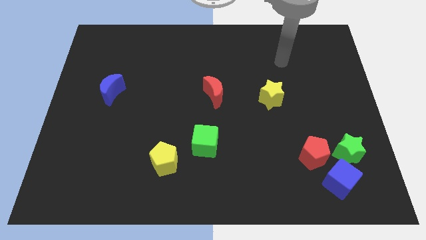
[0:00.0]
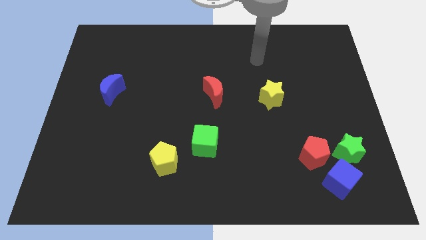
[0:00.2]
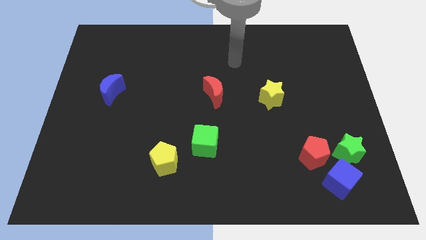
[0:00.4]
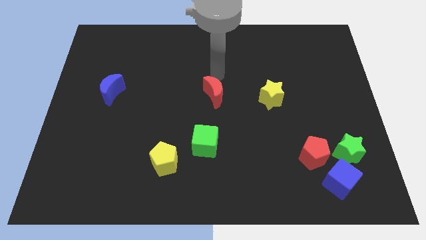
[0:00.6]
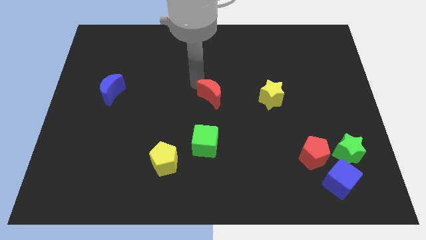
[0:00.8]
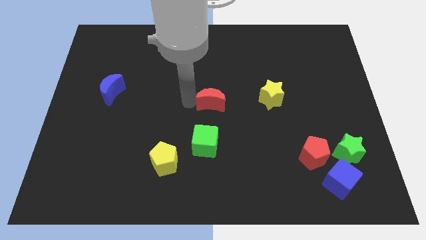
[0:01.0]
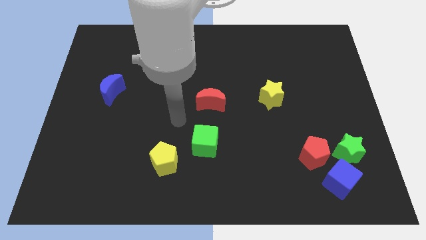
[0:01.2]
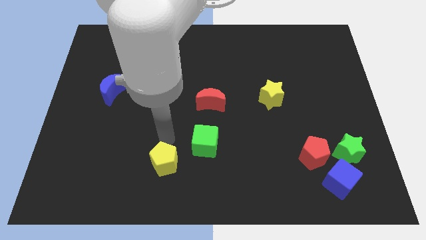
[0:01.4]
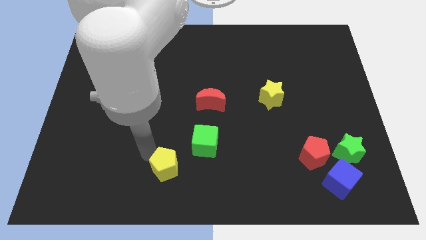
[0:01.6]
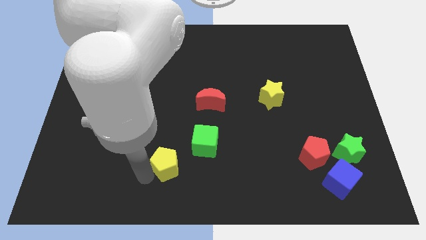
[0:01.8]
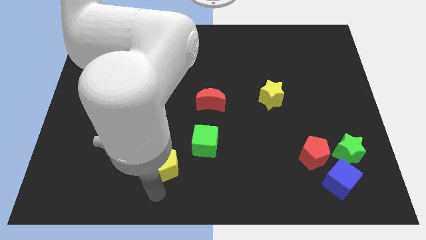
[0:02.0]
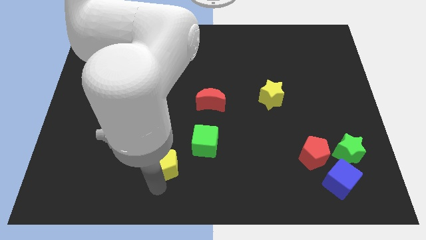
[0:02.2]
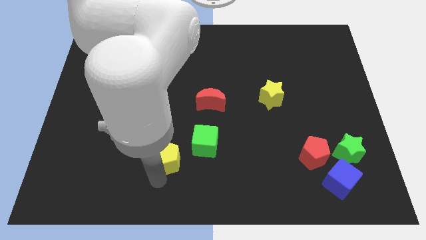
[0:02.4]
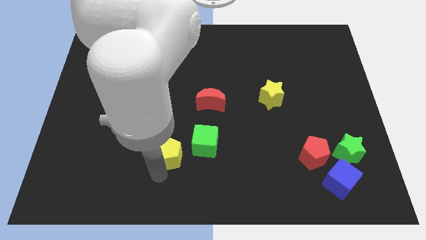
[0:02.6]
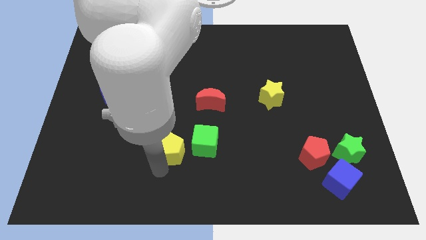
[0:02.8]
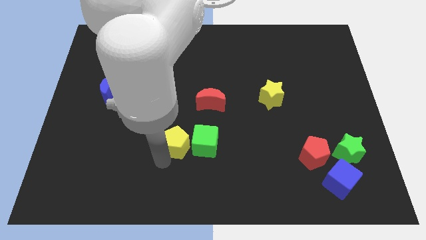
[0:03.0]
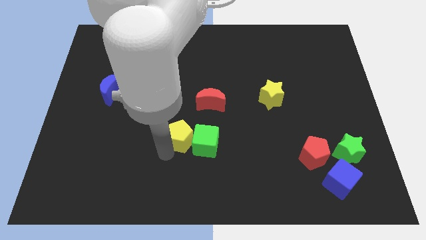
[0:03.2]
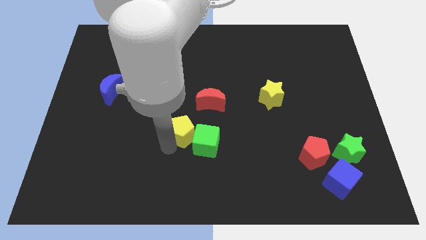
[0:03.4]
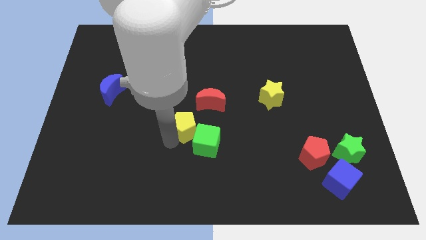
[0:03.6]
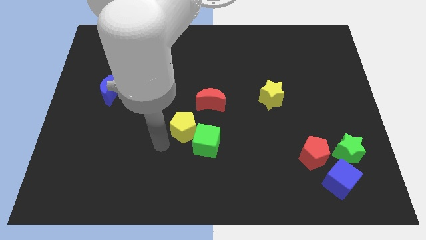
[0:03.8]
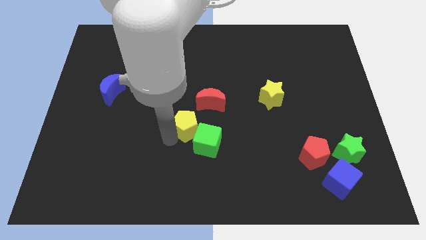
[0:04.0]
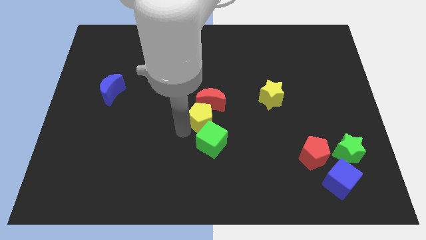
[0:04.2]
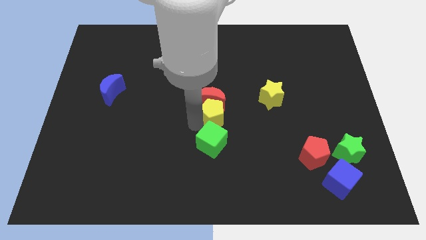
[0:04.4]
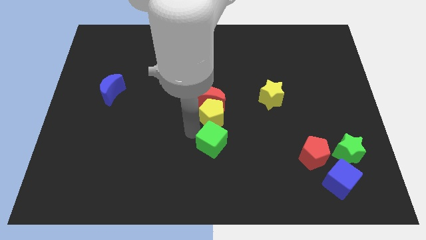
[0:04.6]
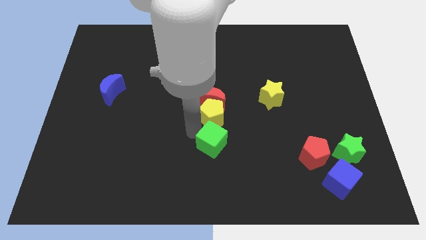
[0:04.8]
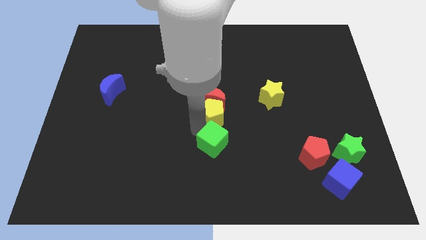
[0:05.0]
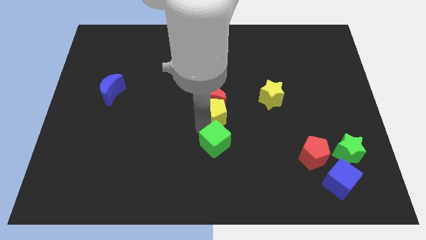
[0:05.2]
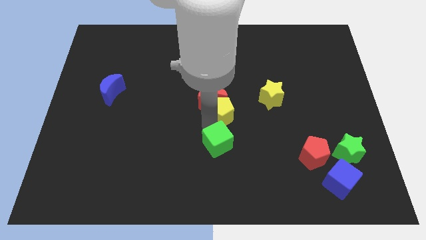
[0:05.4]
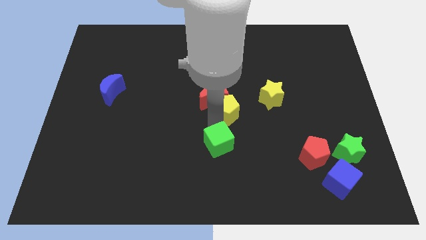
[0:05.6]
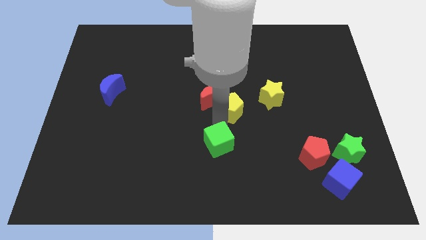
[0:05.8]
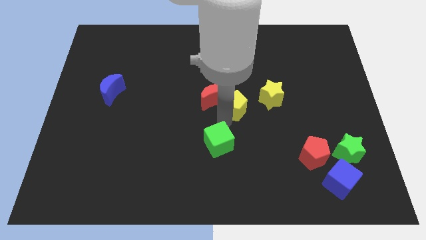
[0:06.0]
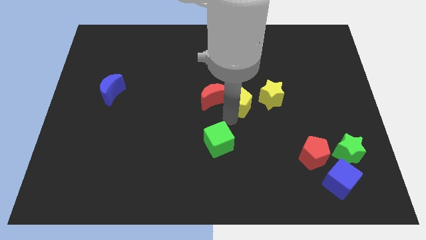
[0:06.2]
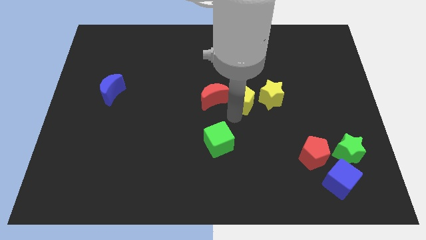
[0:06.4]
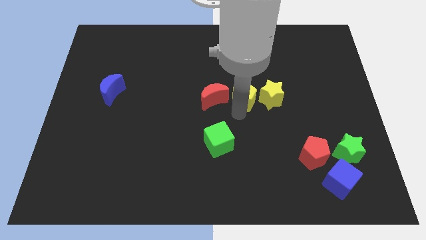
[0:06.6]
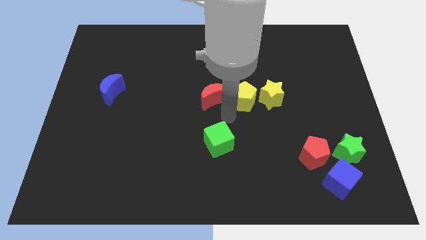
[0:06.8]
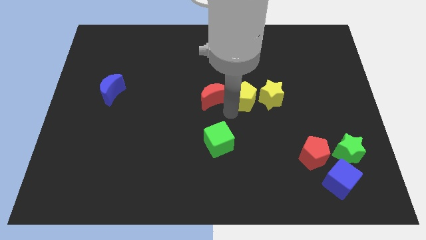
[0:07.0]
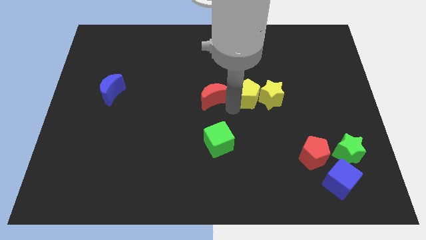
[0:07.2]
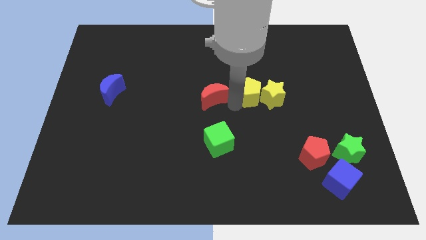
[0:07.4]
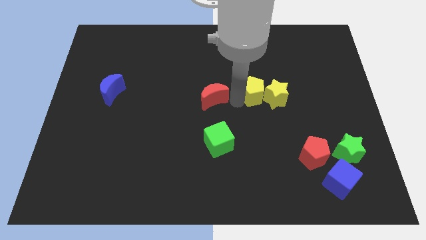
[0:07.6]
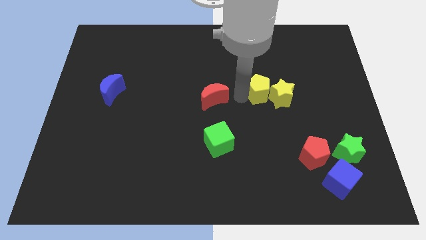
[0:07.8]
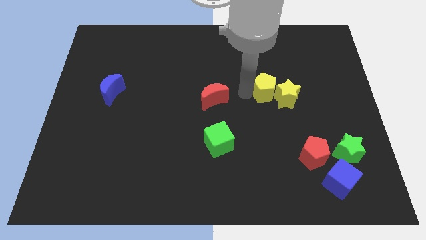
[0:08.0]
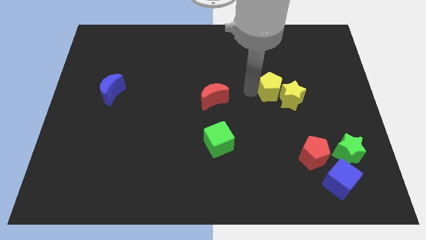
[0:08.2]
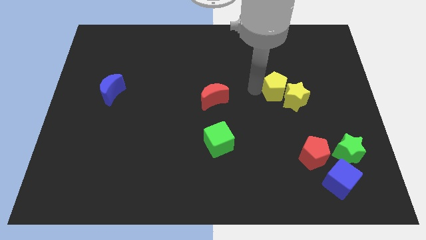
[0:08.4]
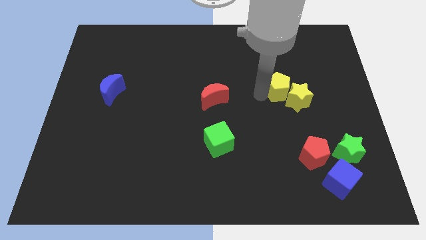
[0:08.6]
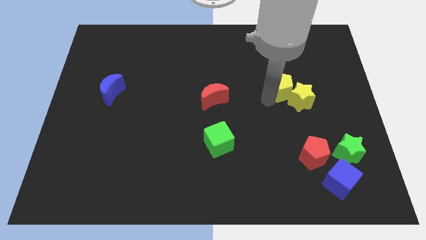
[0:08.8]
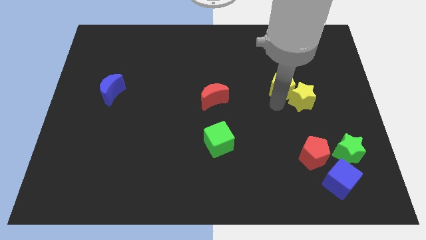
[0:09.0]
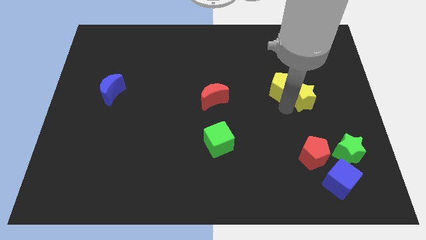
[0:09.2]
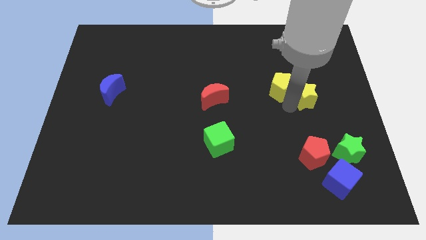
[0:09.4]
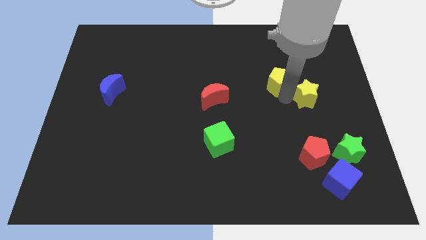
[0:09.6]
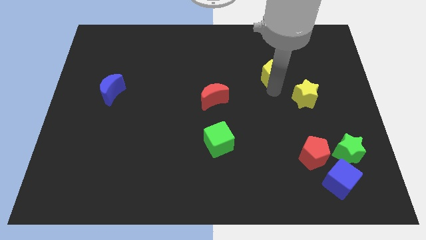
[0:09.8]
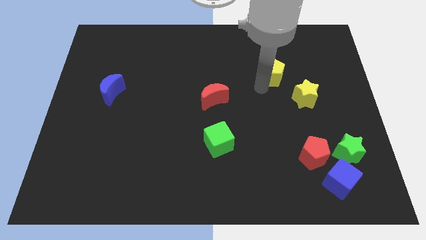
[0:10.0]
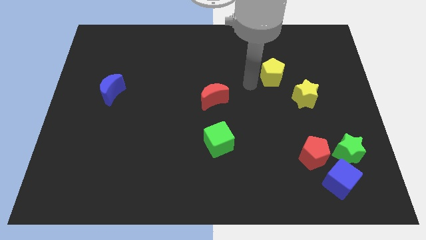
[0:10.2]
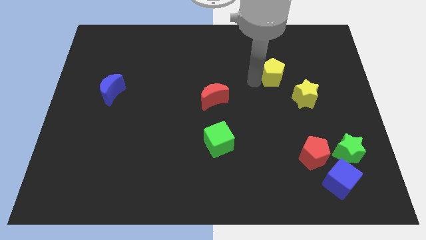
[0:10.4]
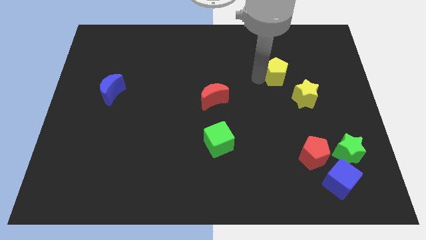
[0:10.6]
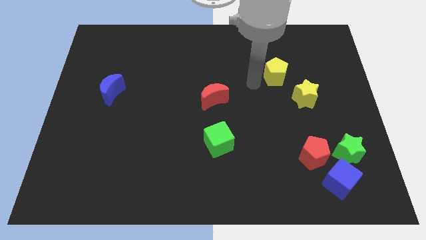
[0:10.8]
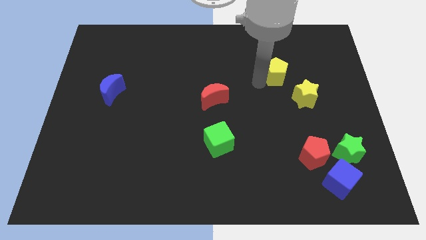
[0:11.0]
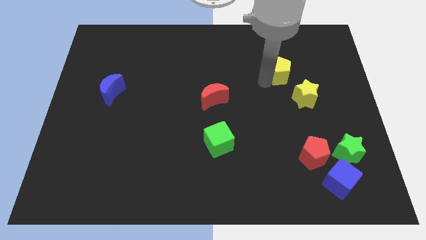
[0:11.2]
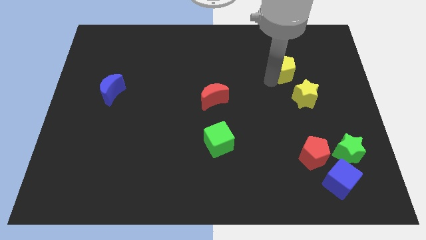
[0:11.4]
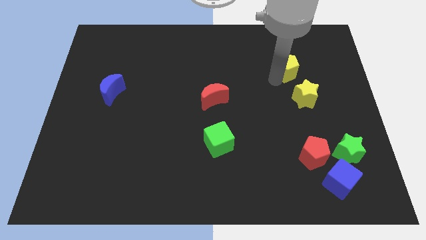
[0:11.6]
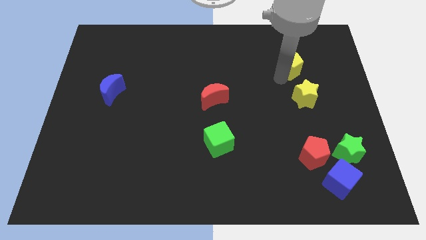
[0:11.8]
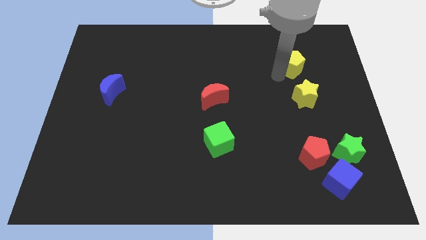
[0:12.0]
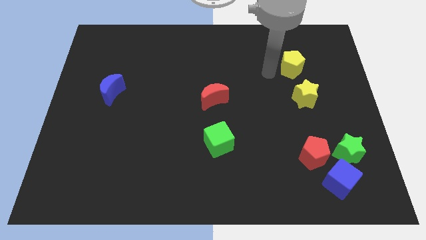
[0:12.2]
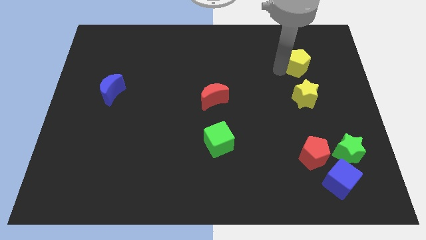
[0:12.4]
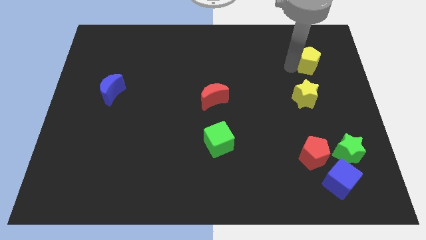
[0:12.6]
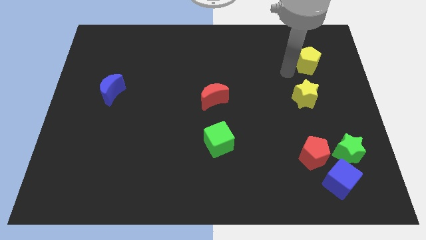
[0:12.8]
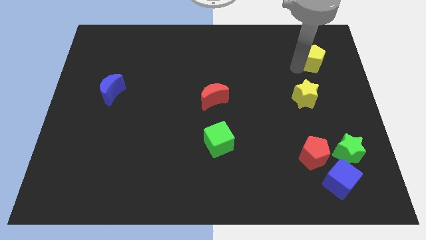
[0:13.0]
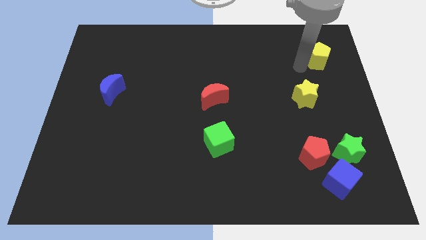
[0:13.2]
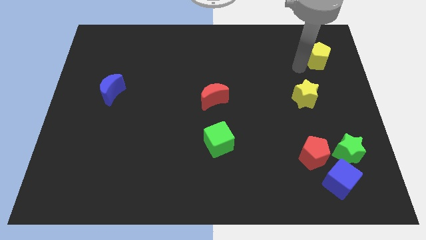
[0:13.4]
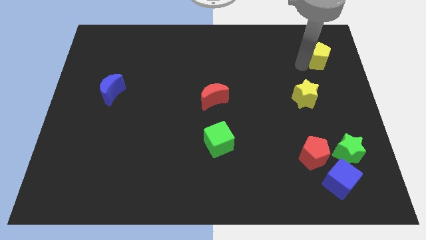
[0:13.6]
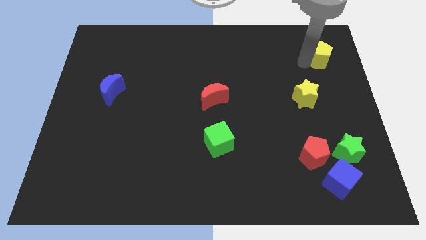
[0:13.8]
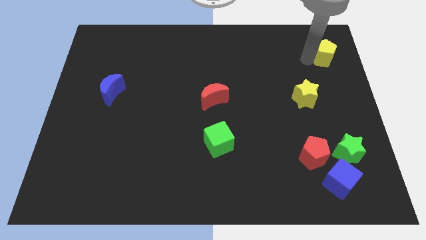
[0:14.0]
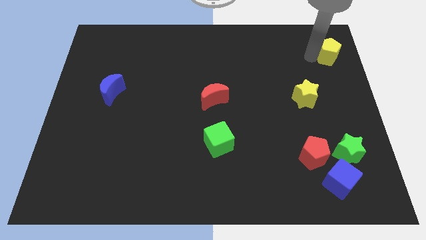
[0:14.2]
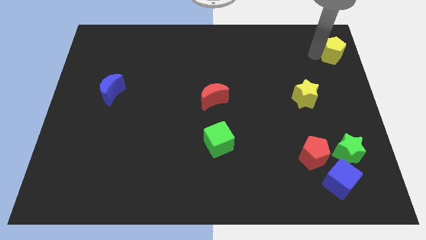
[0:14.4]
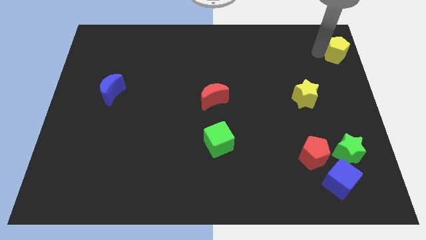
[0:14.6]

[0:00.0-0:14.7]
move the yellow pentagon to the upper right corner
